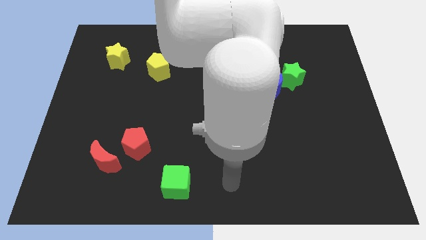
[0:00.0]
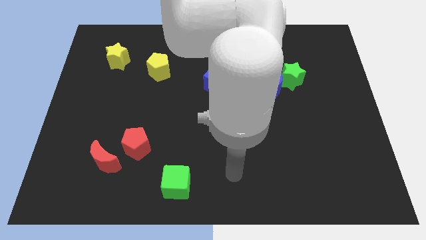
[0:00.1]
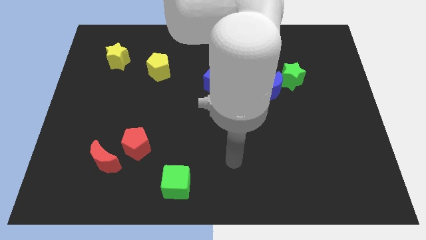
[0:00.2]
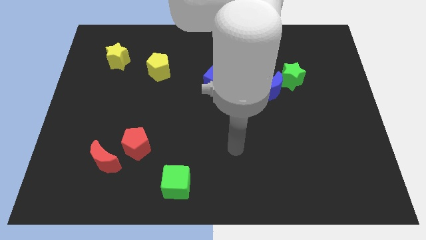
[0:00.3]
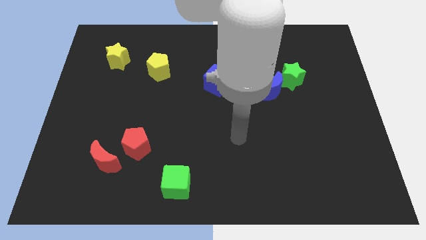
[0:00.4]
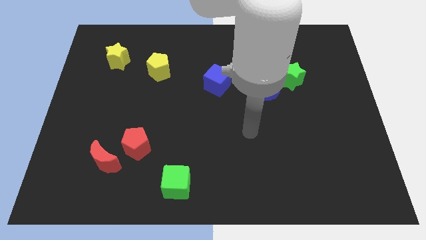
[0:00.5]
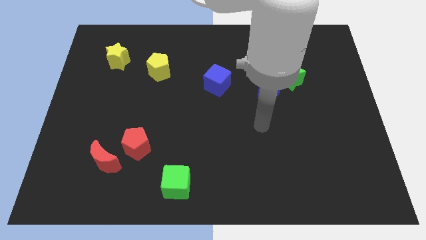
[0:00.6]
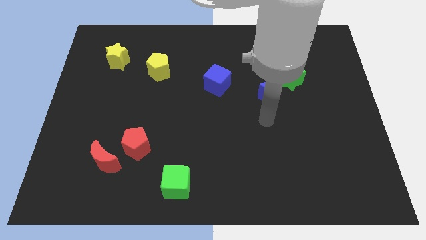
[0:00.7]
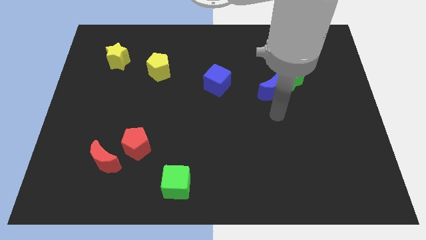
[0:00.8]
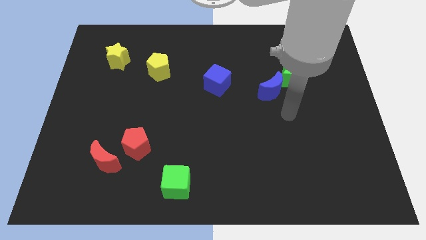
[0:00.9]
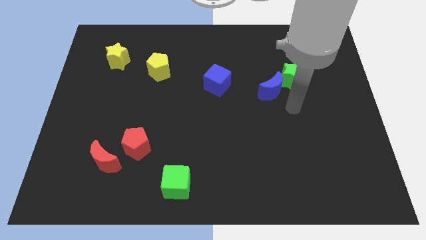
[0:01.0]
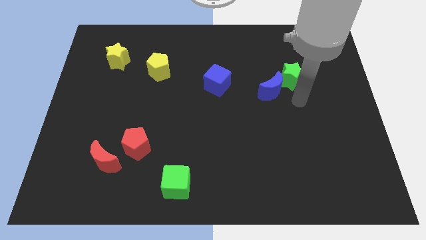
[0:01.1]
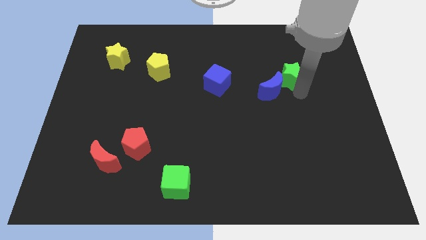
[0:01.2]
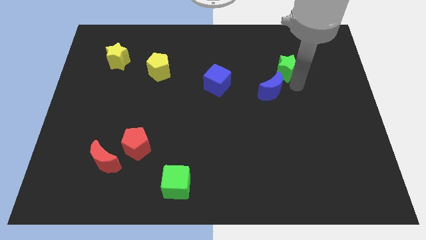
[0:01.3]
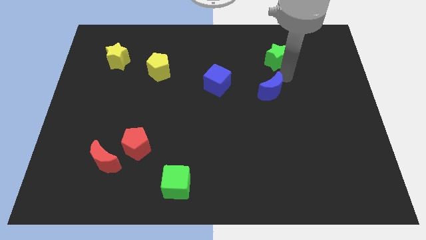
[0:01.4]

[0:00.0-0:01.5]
move the blue moon away from the green star

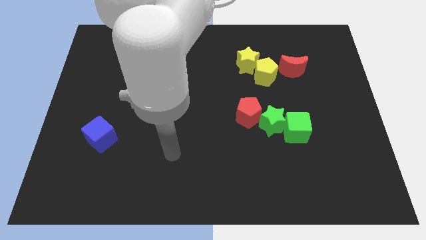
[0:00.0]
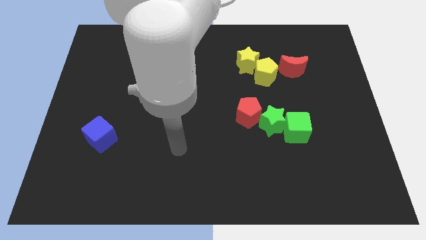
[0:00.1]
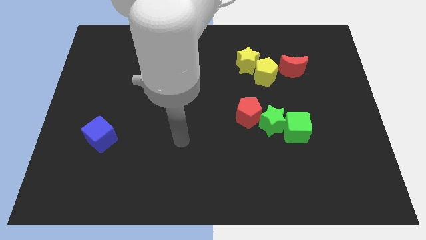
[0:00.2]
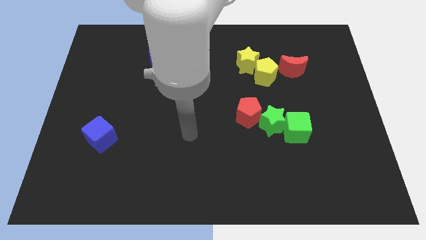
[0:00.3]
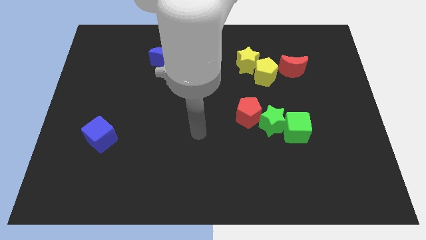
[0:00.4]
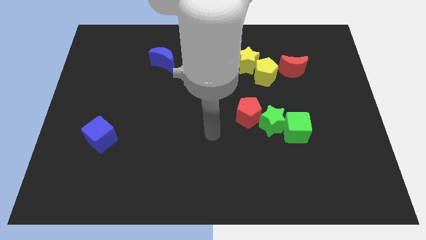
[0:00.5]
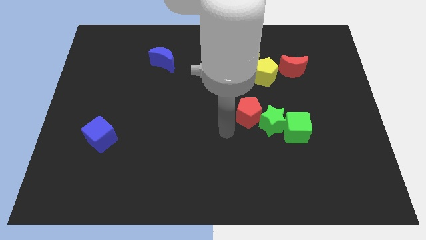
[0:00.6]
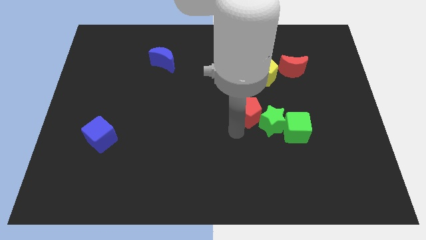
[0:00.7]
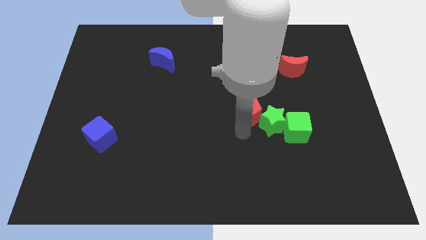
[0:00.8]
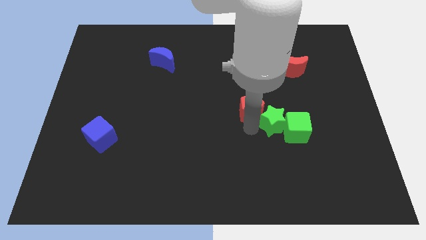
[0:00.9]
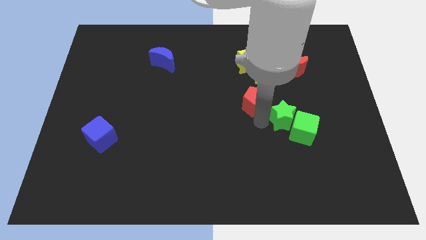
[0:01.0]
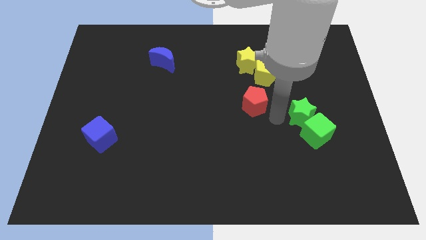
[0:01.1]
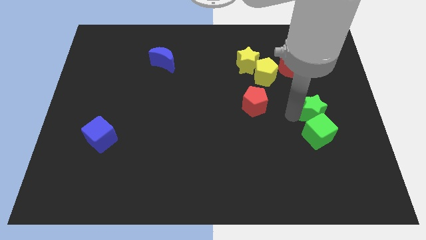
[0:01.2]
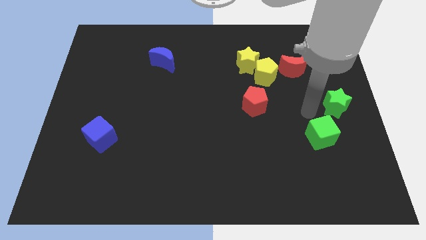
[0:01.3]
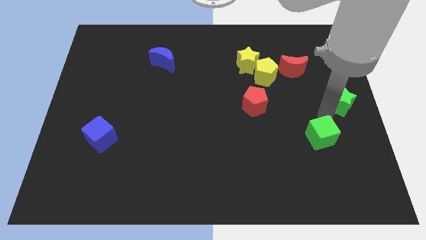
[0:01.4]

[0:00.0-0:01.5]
separate the green cube from the green star

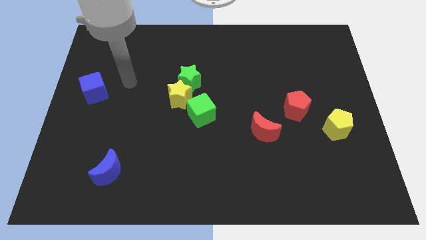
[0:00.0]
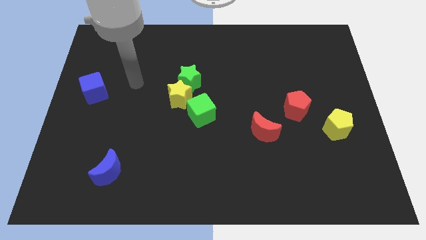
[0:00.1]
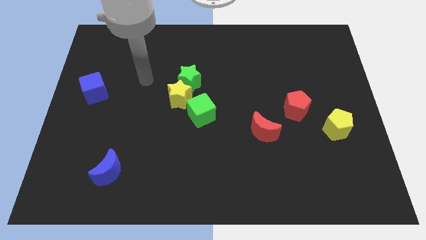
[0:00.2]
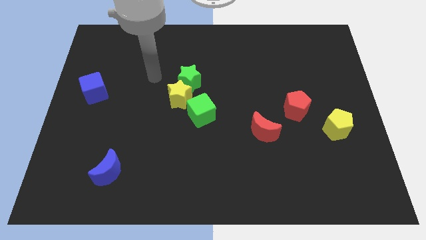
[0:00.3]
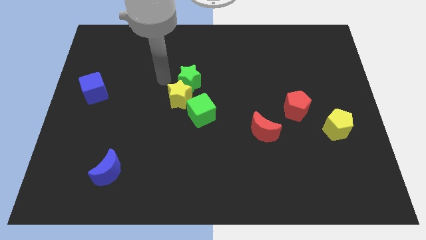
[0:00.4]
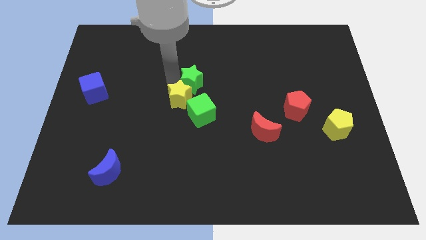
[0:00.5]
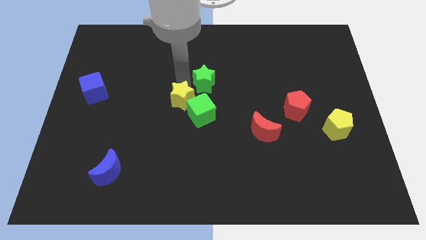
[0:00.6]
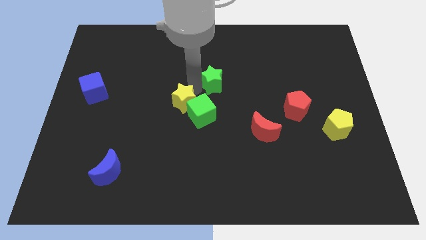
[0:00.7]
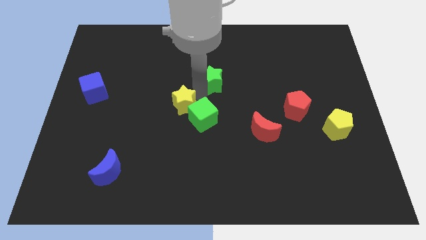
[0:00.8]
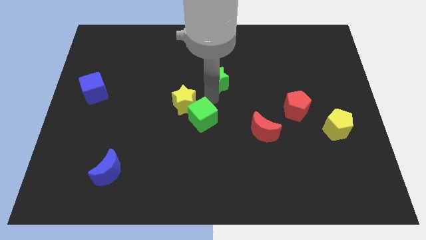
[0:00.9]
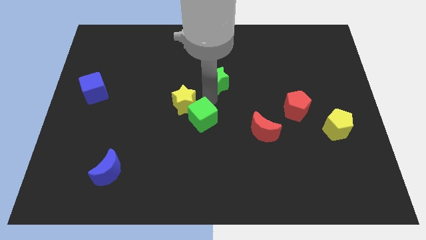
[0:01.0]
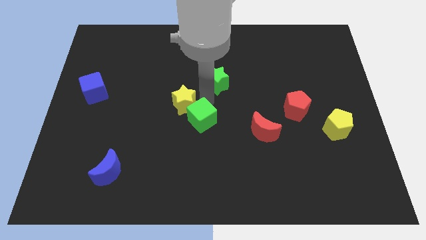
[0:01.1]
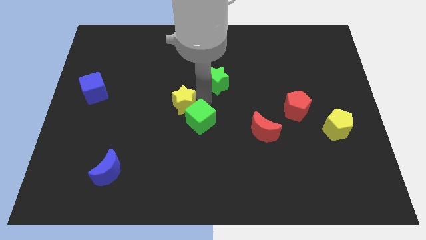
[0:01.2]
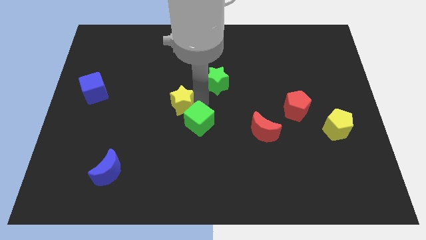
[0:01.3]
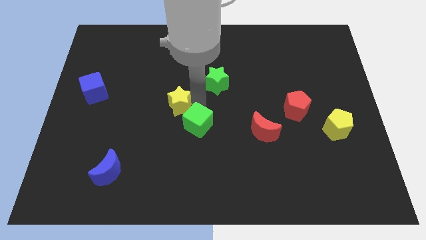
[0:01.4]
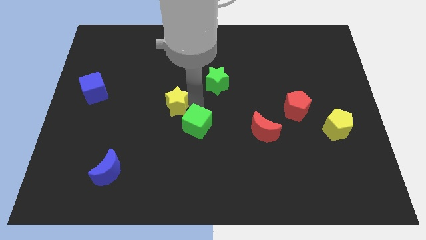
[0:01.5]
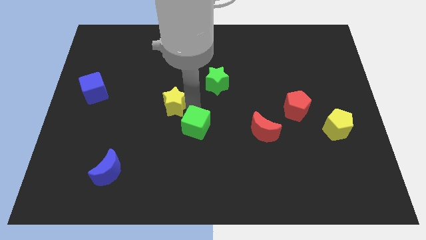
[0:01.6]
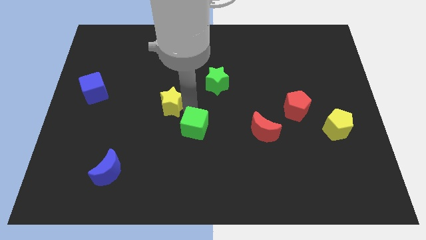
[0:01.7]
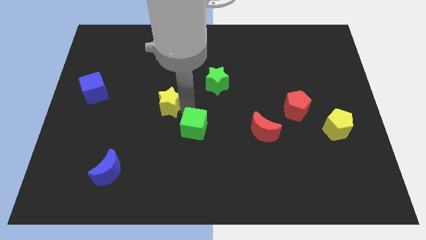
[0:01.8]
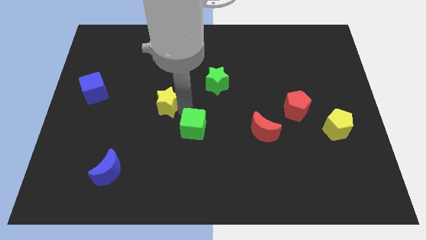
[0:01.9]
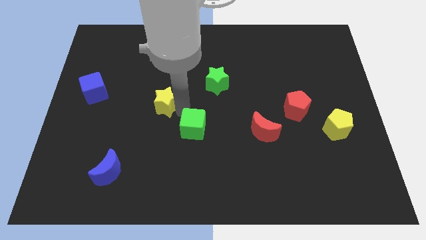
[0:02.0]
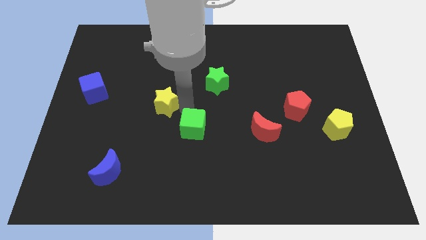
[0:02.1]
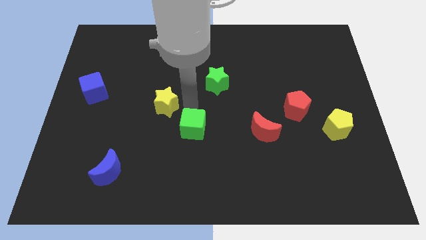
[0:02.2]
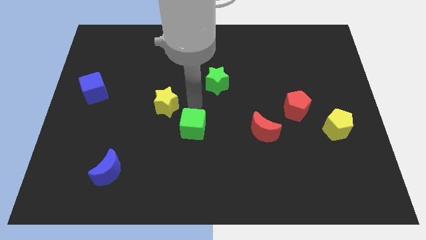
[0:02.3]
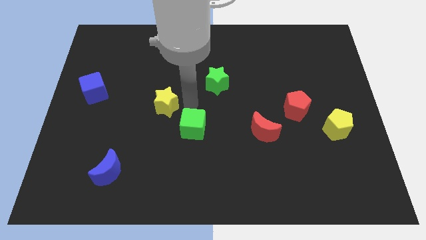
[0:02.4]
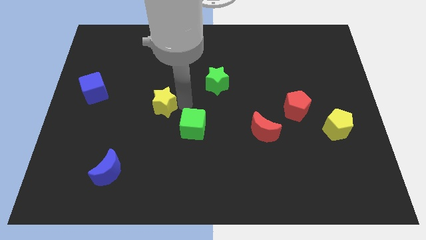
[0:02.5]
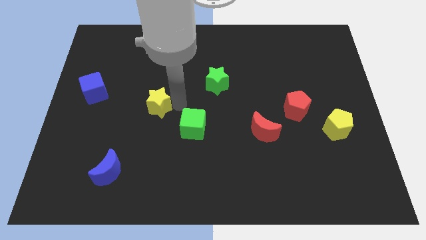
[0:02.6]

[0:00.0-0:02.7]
pull the yellow star apart from the green star and green cube

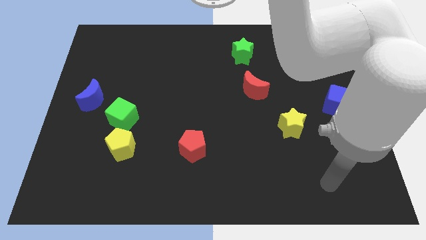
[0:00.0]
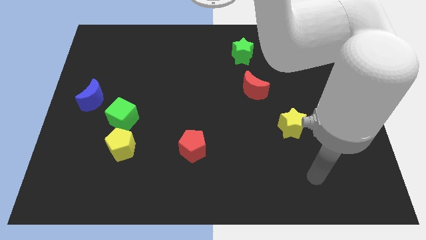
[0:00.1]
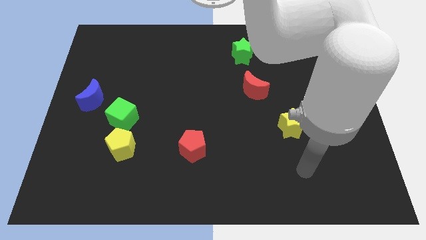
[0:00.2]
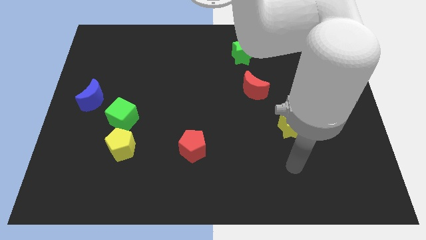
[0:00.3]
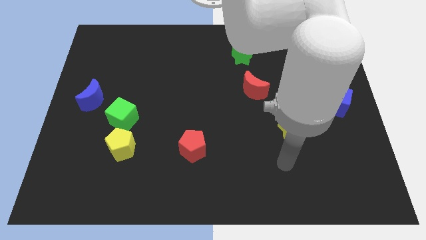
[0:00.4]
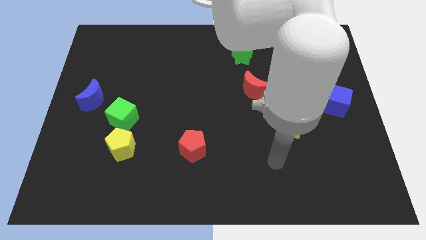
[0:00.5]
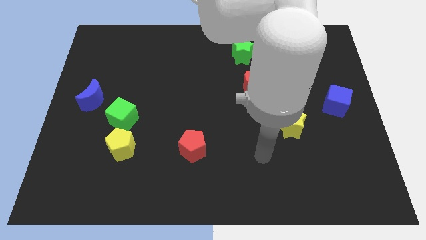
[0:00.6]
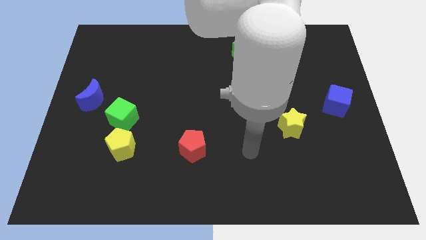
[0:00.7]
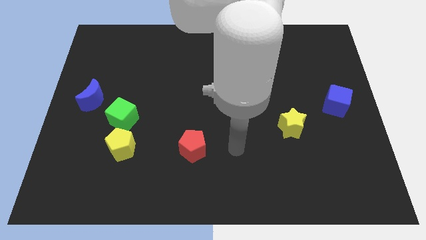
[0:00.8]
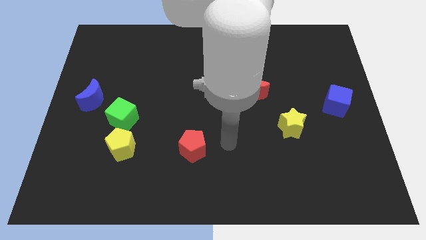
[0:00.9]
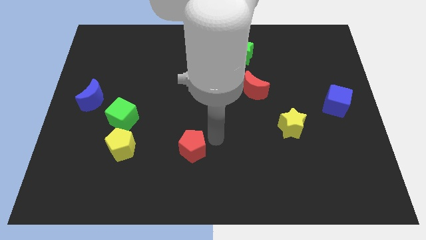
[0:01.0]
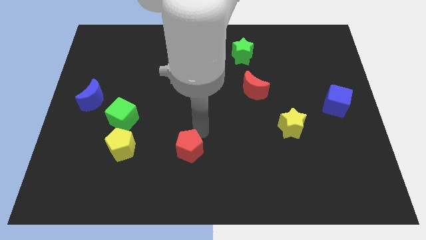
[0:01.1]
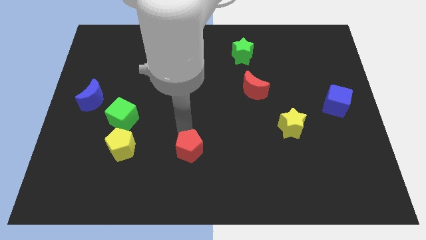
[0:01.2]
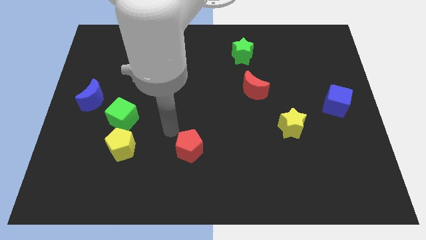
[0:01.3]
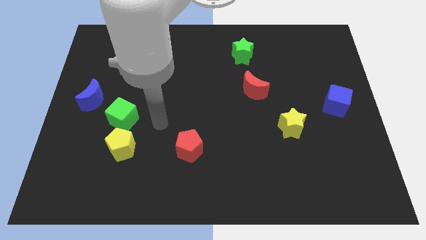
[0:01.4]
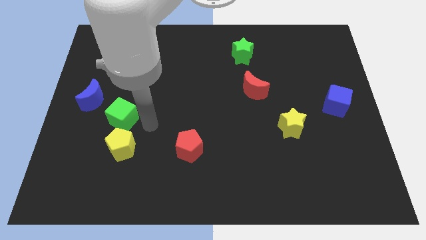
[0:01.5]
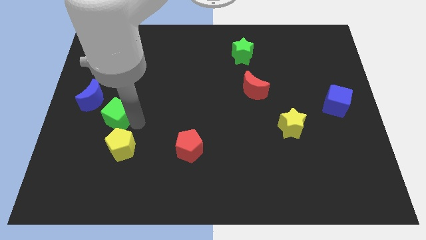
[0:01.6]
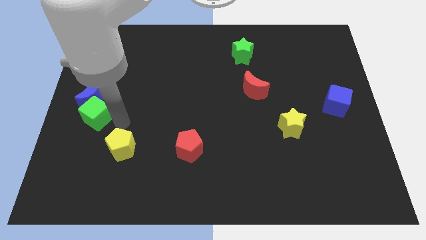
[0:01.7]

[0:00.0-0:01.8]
pull the yellow pentagon apart from the green cube

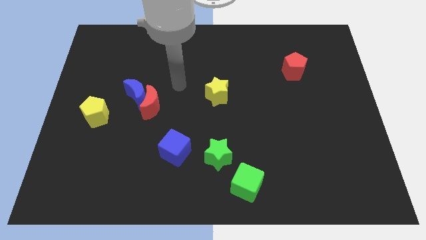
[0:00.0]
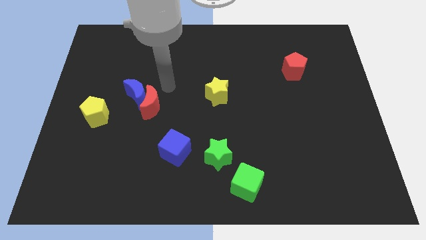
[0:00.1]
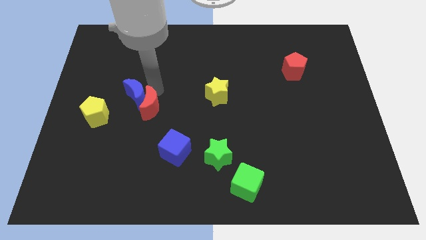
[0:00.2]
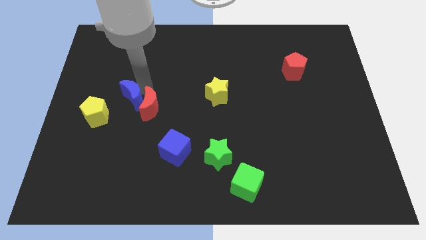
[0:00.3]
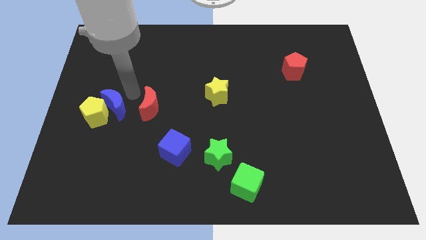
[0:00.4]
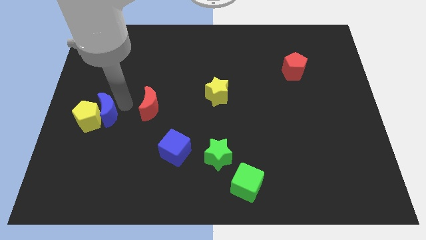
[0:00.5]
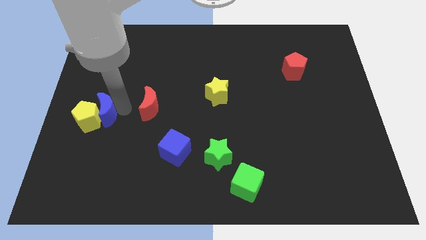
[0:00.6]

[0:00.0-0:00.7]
separate the red moon from the blue moon

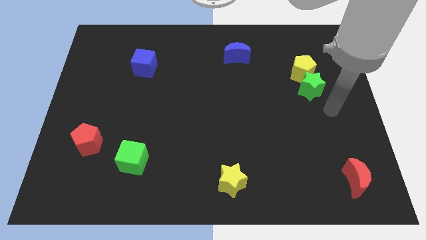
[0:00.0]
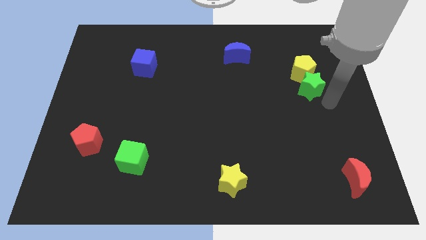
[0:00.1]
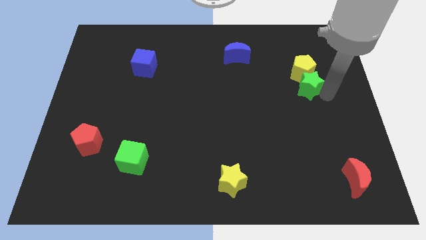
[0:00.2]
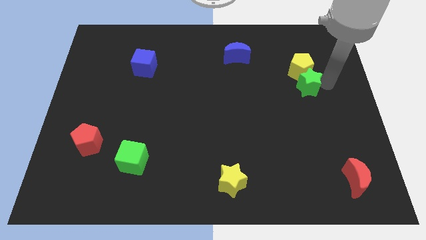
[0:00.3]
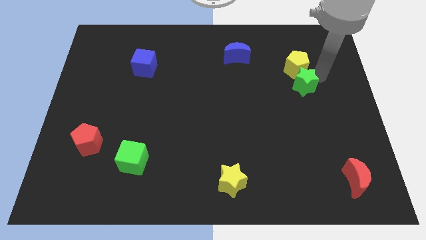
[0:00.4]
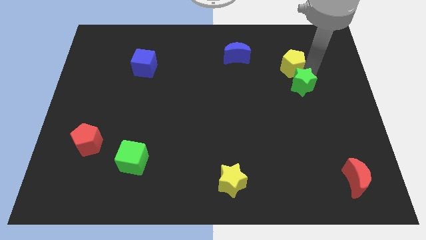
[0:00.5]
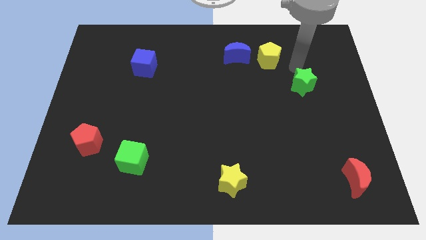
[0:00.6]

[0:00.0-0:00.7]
move the green star away from the yellow pentagon

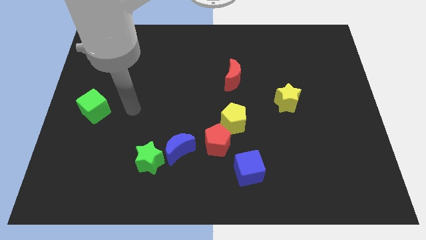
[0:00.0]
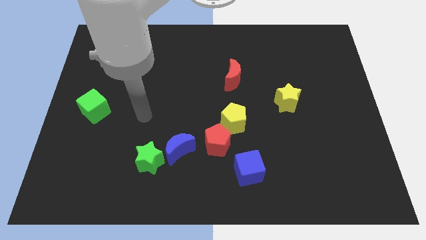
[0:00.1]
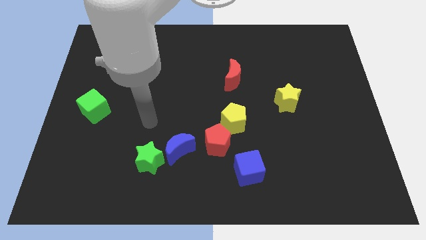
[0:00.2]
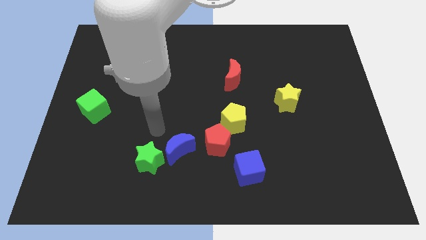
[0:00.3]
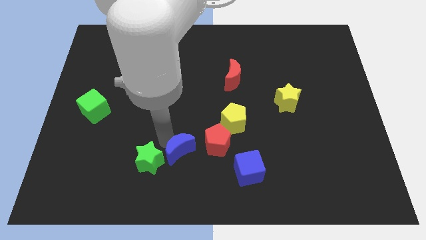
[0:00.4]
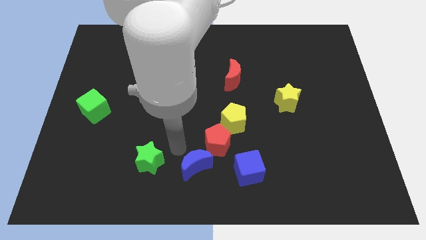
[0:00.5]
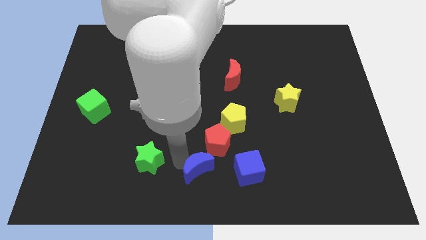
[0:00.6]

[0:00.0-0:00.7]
move the green star away from the blue moon
